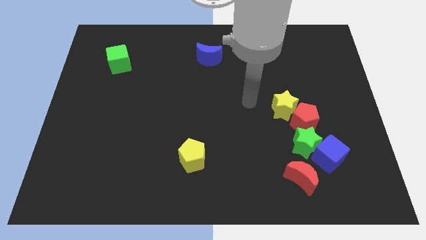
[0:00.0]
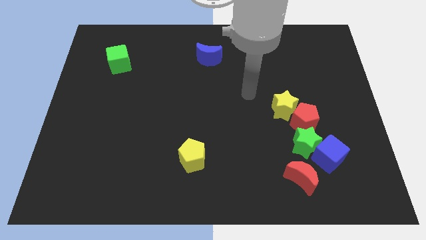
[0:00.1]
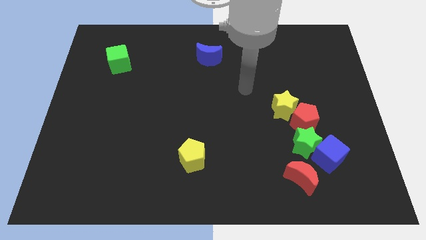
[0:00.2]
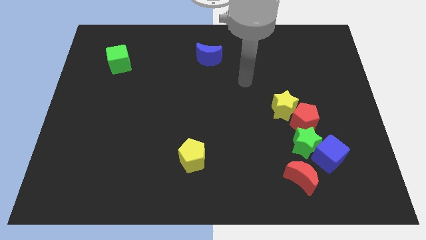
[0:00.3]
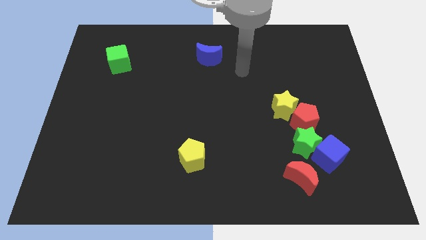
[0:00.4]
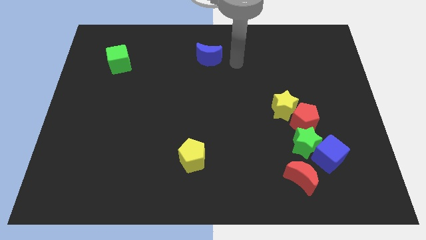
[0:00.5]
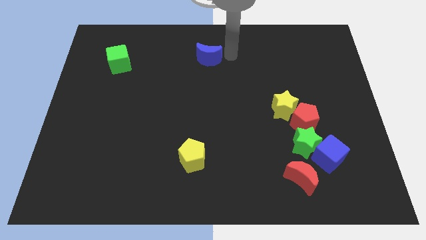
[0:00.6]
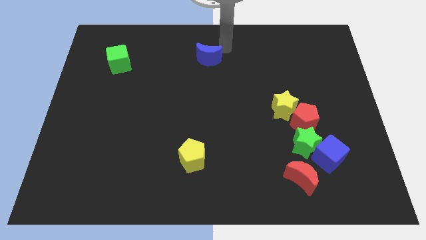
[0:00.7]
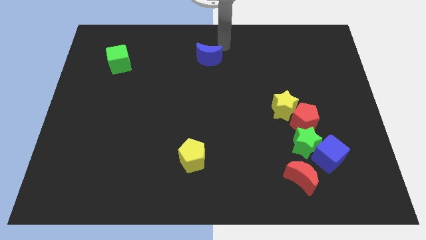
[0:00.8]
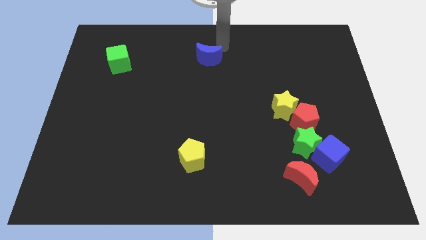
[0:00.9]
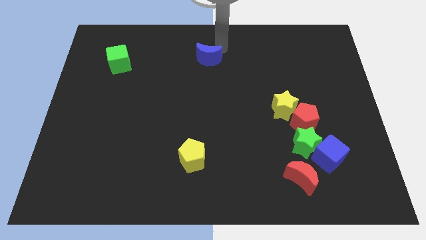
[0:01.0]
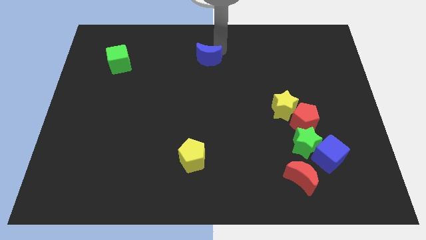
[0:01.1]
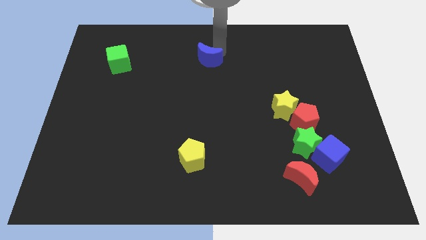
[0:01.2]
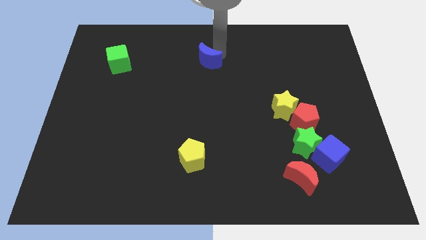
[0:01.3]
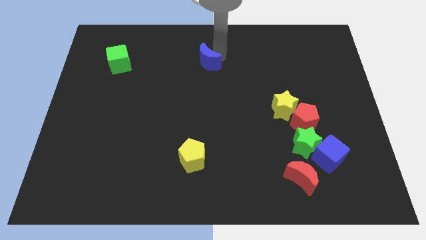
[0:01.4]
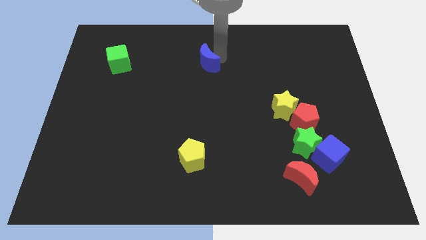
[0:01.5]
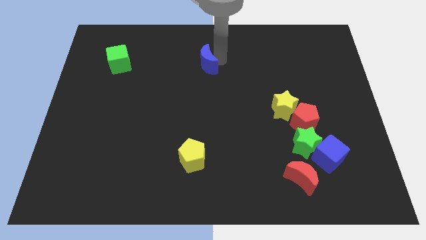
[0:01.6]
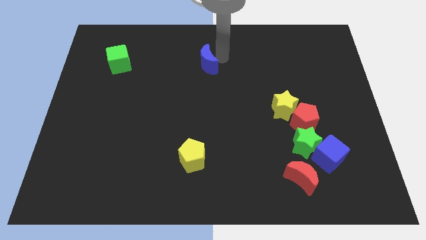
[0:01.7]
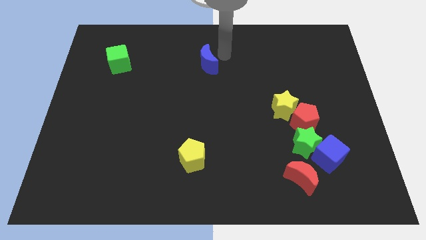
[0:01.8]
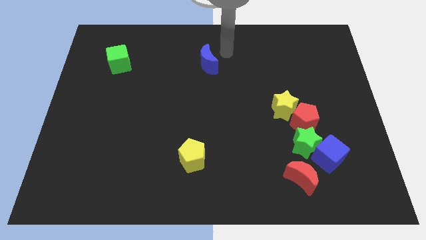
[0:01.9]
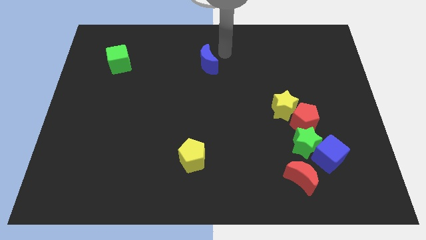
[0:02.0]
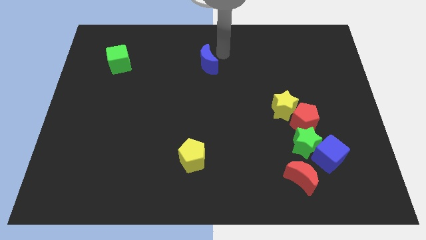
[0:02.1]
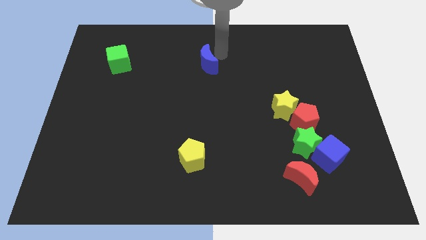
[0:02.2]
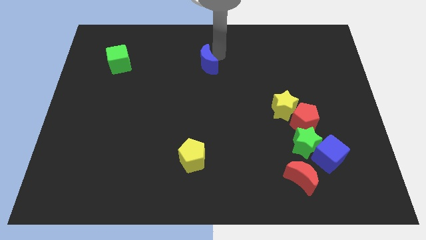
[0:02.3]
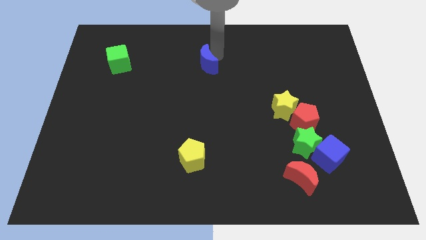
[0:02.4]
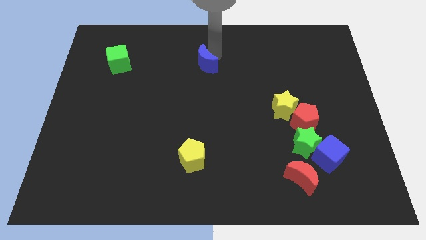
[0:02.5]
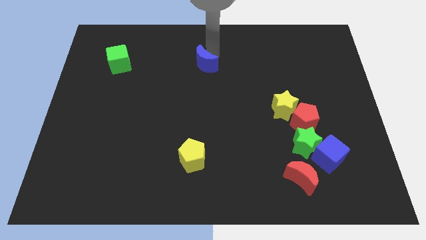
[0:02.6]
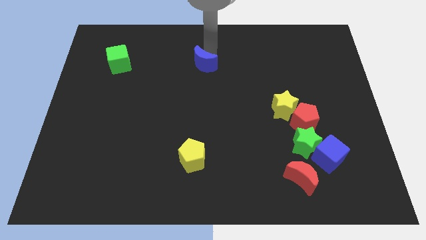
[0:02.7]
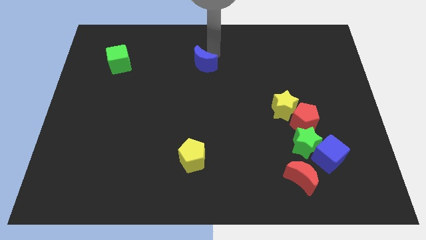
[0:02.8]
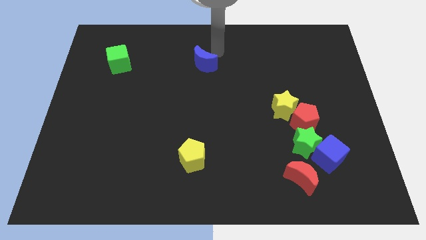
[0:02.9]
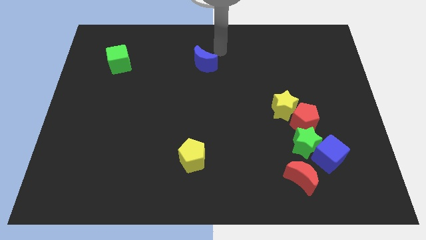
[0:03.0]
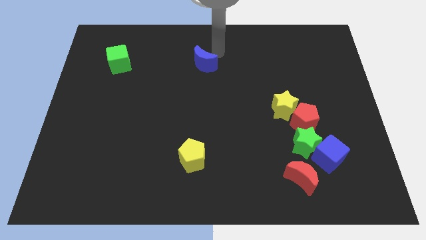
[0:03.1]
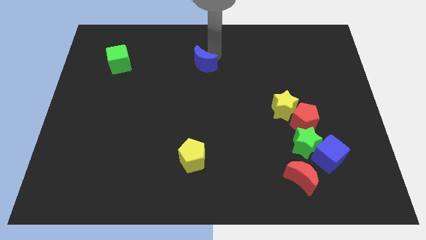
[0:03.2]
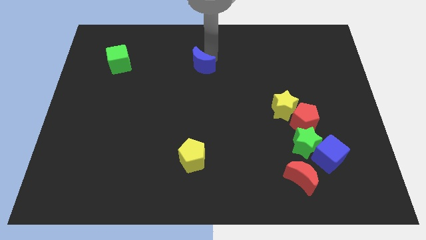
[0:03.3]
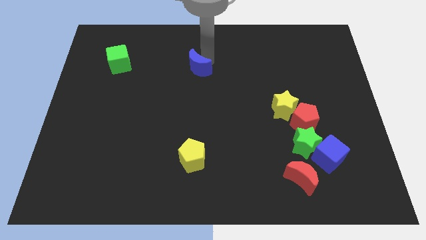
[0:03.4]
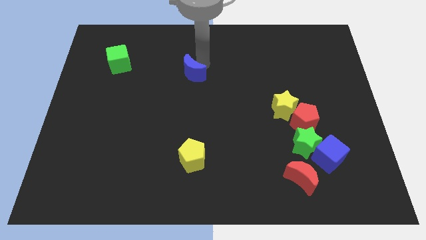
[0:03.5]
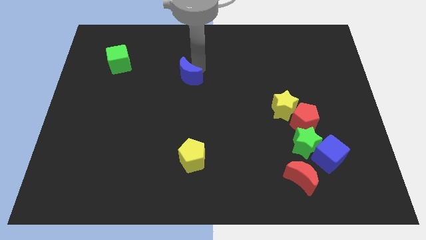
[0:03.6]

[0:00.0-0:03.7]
slide the blue moon a little down and then to the left

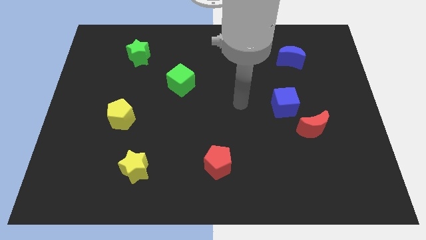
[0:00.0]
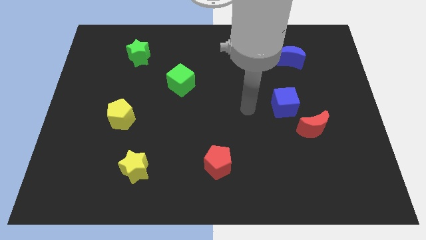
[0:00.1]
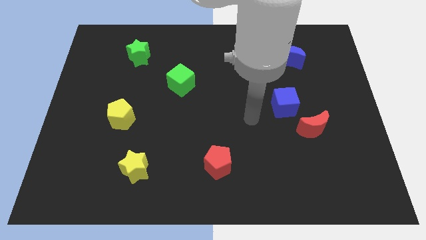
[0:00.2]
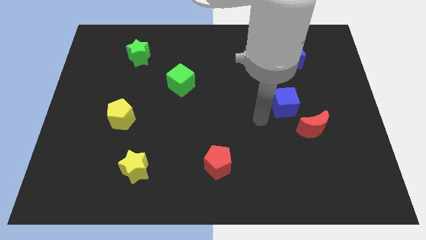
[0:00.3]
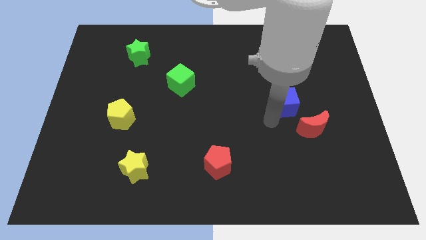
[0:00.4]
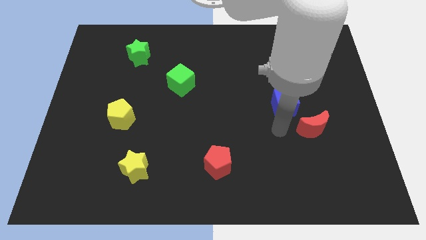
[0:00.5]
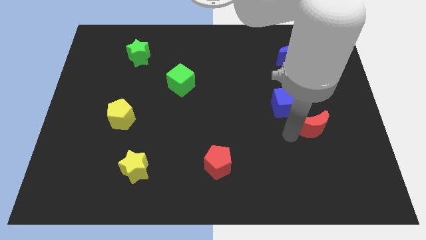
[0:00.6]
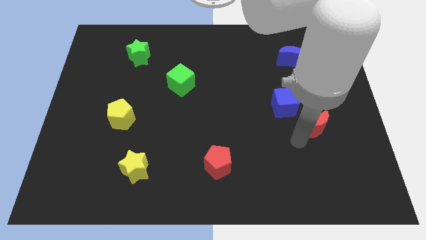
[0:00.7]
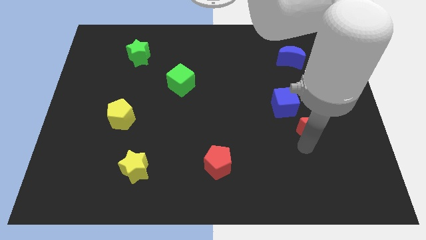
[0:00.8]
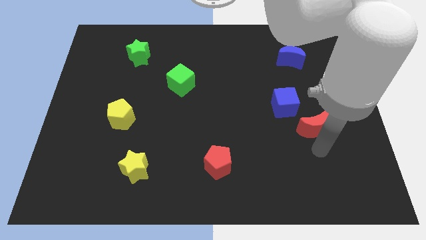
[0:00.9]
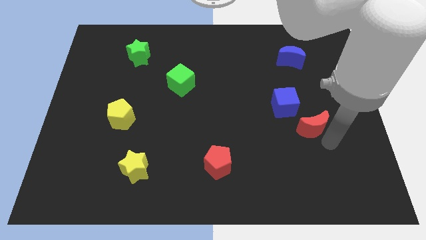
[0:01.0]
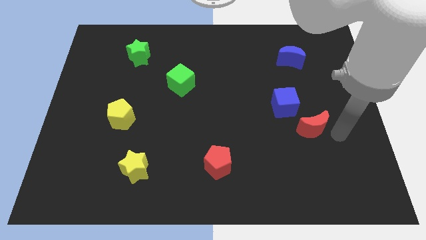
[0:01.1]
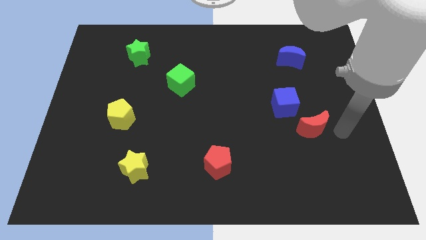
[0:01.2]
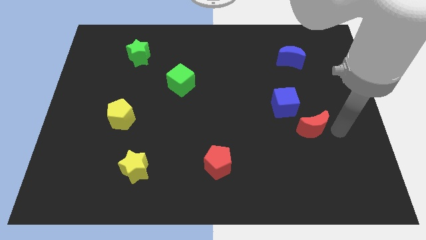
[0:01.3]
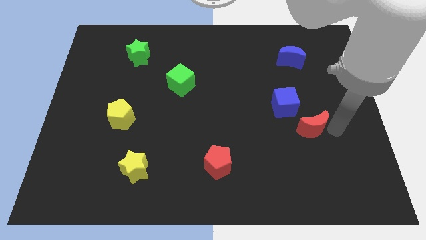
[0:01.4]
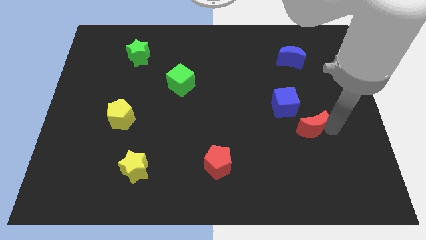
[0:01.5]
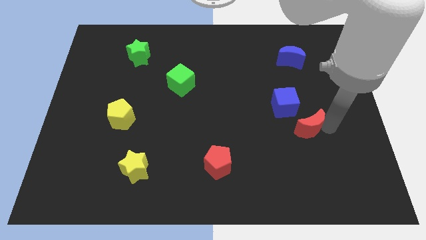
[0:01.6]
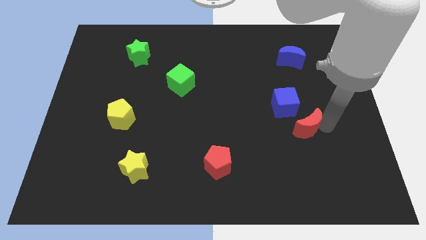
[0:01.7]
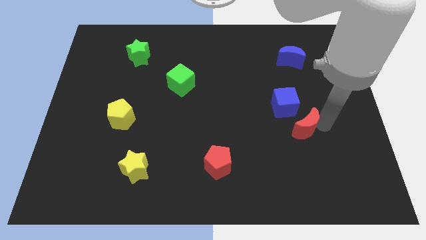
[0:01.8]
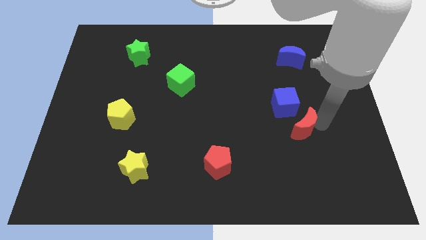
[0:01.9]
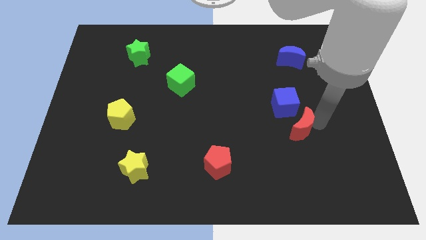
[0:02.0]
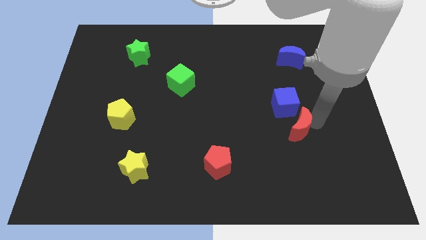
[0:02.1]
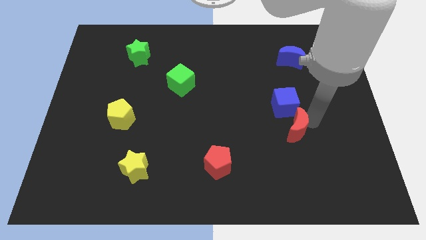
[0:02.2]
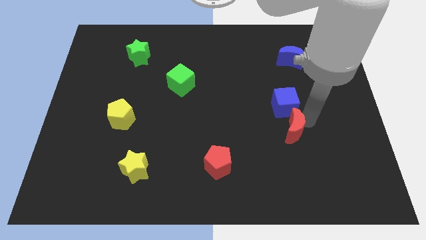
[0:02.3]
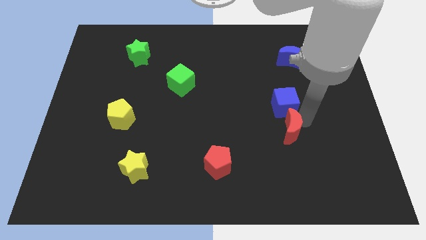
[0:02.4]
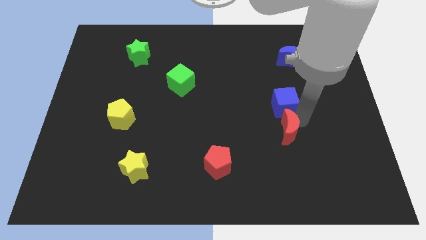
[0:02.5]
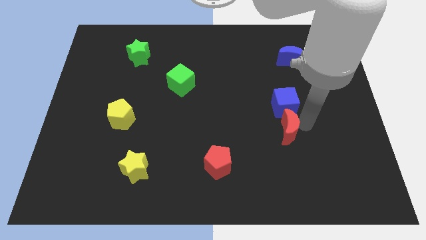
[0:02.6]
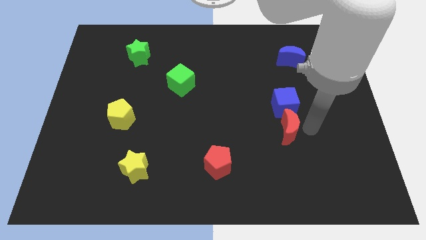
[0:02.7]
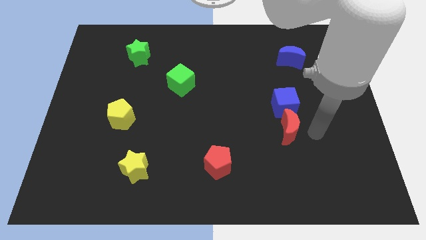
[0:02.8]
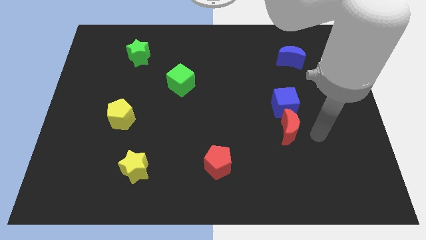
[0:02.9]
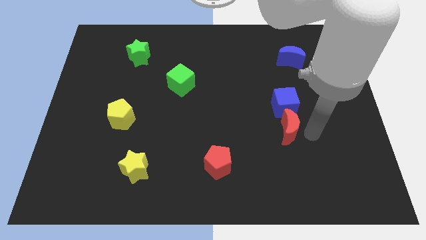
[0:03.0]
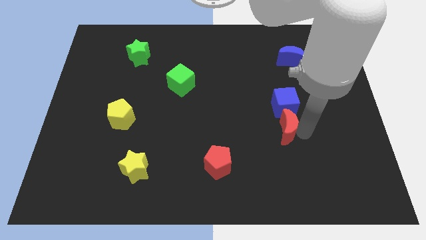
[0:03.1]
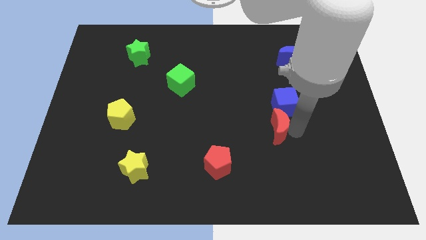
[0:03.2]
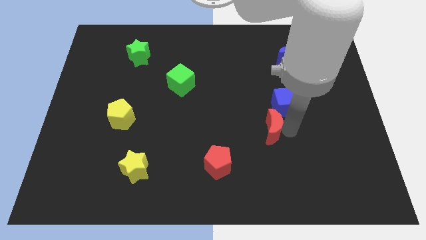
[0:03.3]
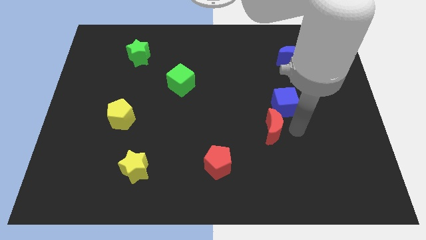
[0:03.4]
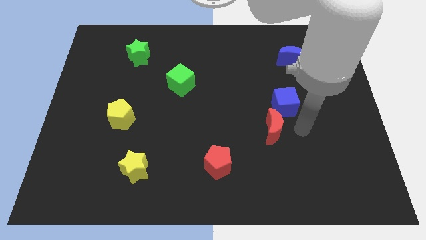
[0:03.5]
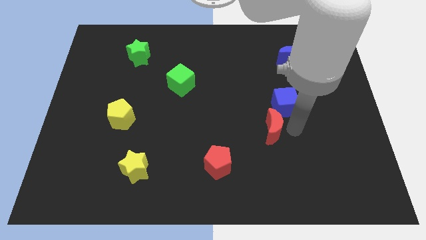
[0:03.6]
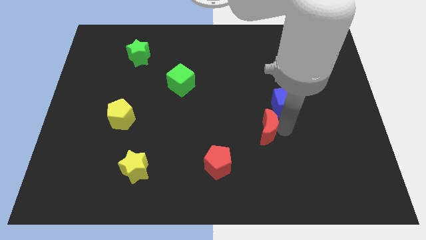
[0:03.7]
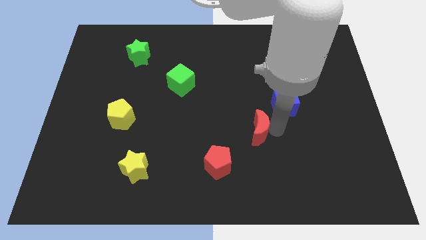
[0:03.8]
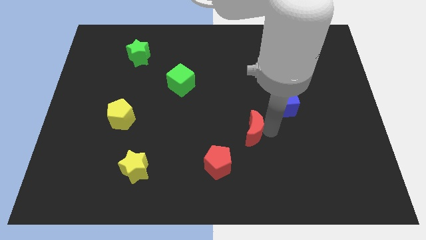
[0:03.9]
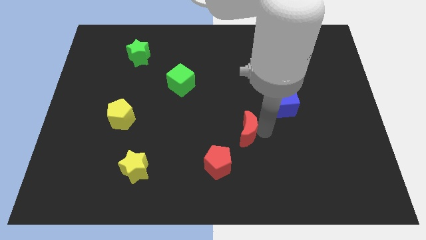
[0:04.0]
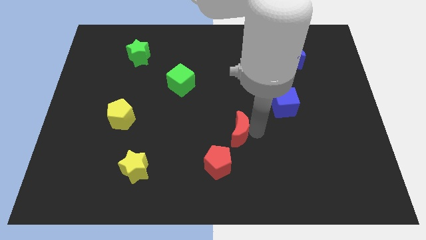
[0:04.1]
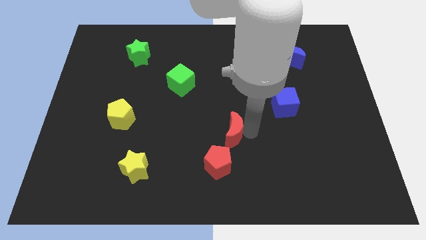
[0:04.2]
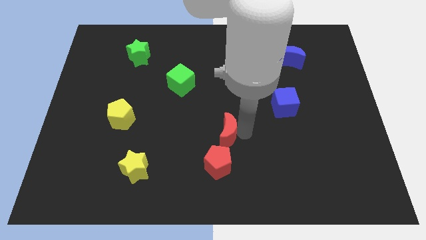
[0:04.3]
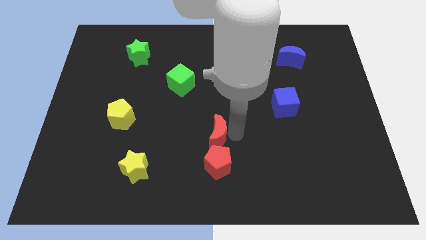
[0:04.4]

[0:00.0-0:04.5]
slide the red moon left
